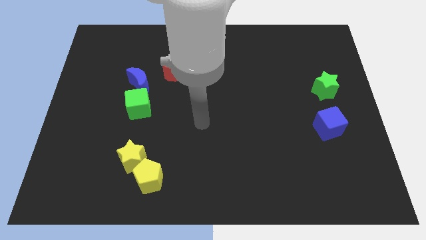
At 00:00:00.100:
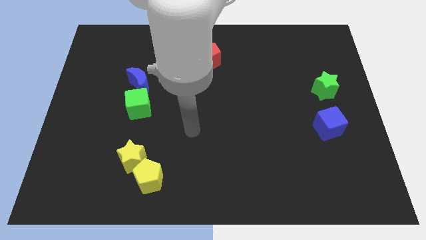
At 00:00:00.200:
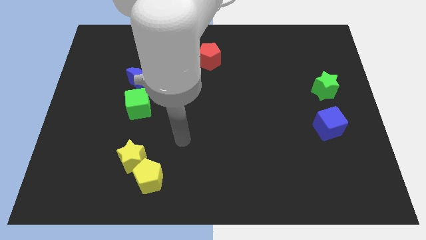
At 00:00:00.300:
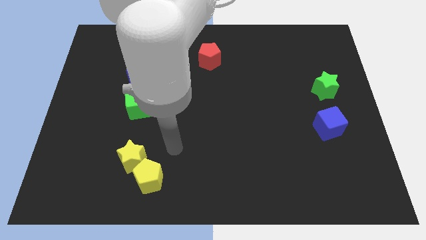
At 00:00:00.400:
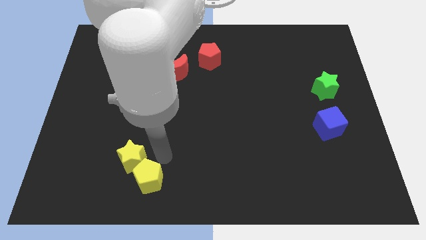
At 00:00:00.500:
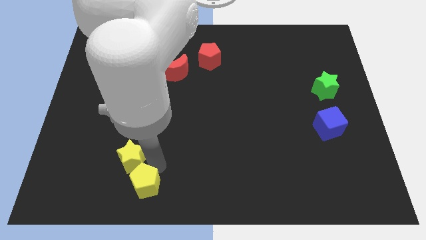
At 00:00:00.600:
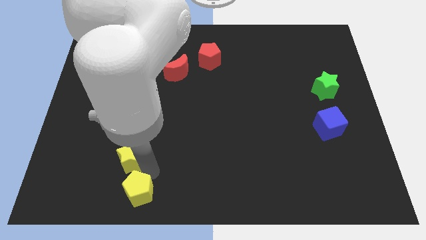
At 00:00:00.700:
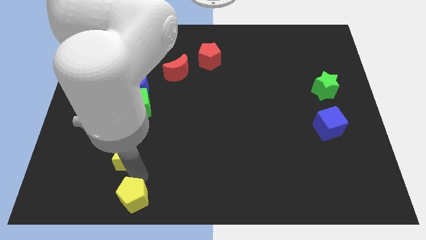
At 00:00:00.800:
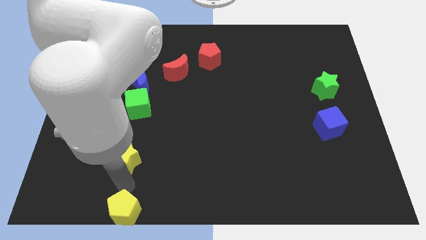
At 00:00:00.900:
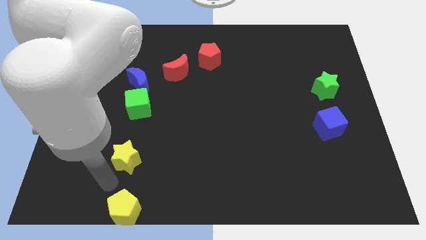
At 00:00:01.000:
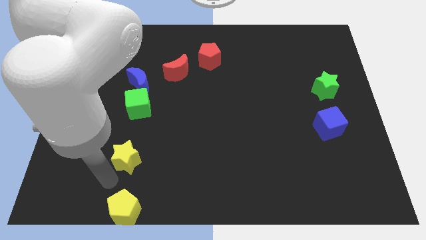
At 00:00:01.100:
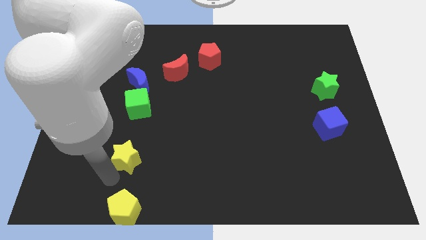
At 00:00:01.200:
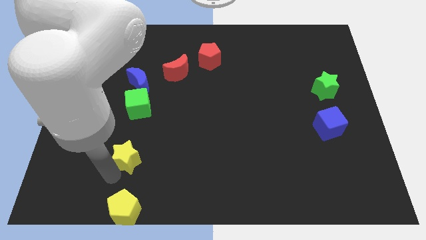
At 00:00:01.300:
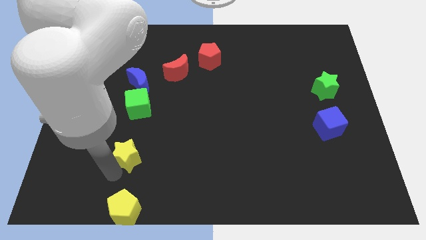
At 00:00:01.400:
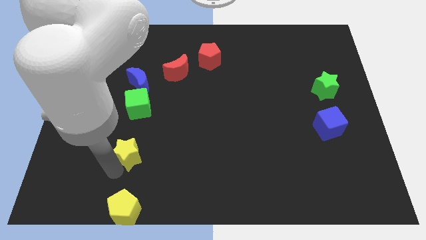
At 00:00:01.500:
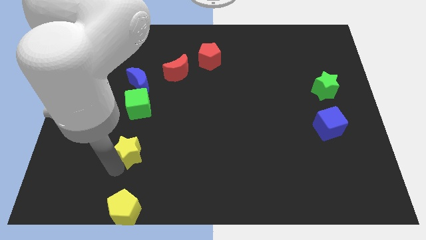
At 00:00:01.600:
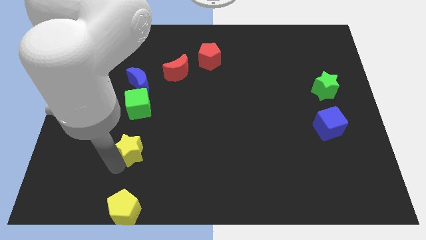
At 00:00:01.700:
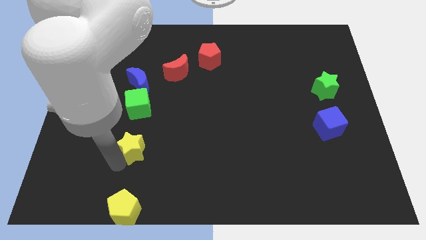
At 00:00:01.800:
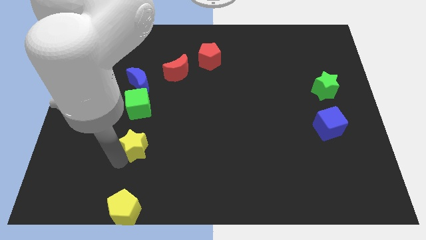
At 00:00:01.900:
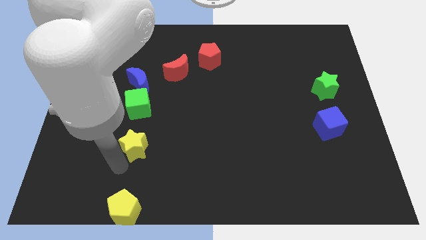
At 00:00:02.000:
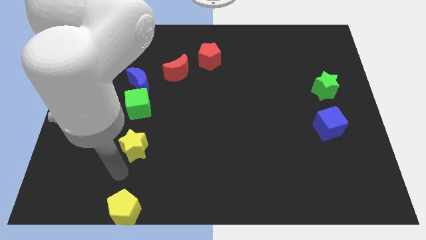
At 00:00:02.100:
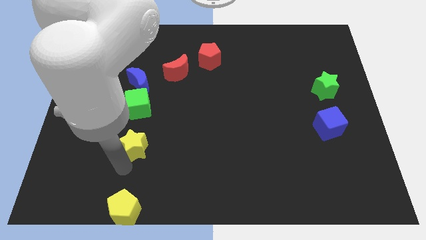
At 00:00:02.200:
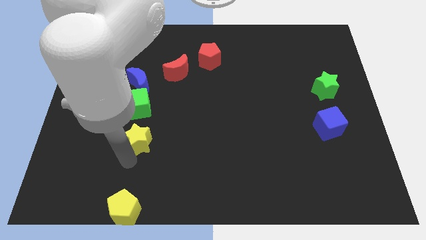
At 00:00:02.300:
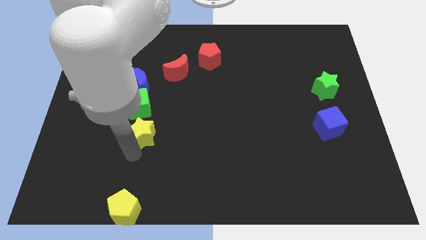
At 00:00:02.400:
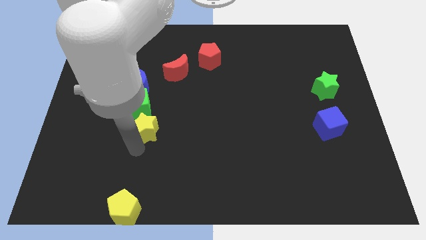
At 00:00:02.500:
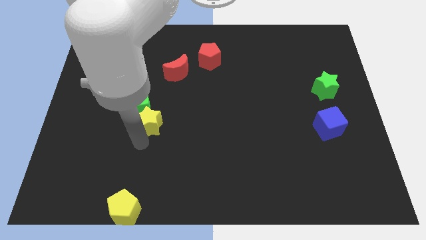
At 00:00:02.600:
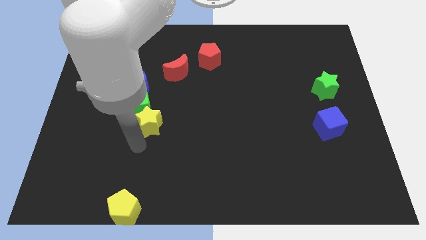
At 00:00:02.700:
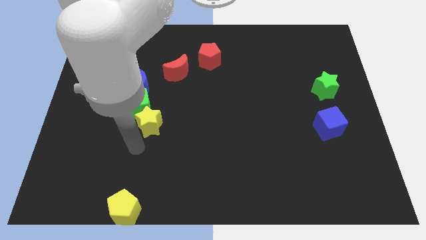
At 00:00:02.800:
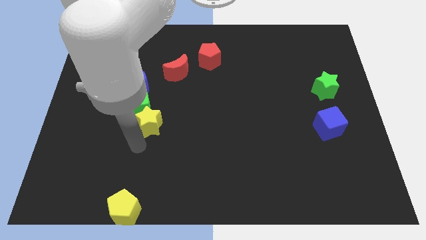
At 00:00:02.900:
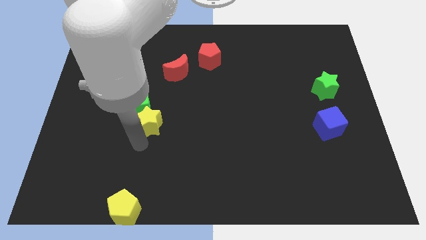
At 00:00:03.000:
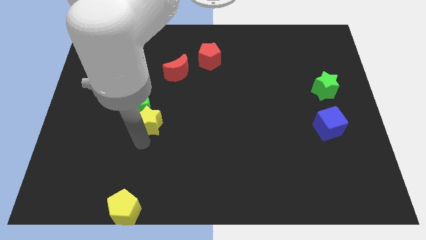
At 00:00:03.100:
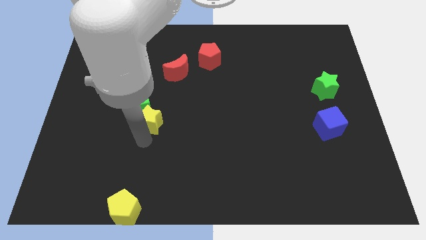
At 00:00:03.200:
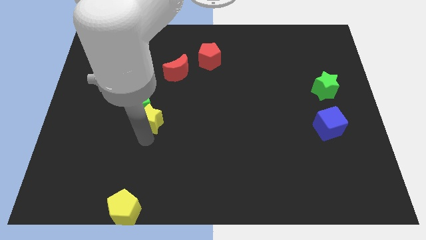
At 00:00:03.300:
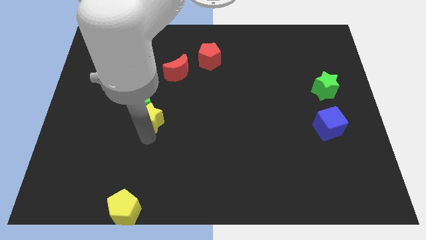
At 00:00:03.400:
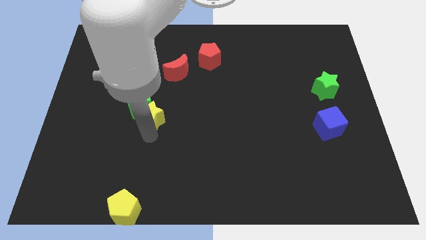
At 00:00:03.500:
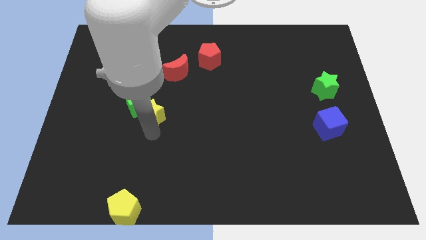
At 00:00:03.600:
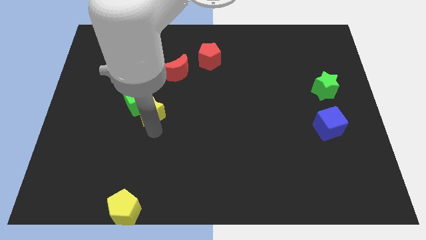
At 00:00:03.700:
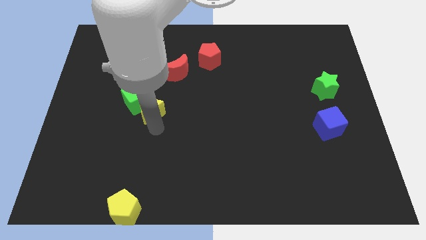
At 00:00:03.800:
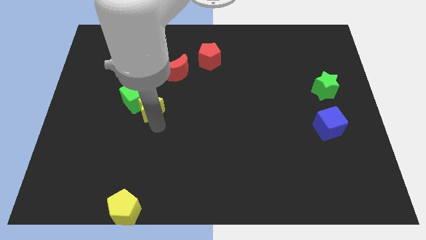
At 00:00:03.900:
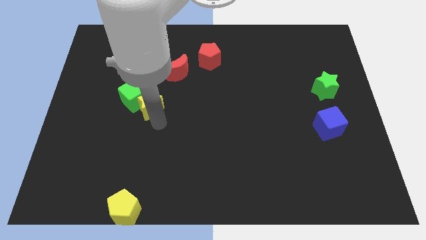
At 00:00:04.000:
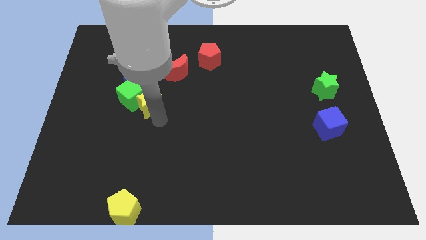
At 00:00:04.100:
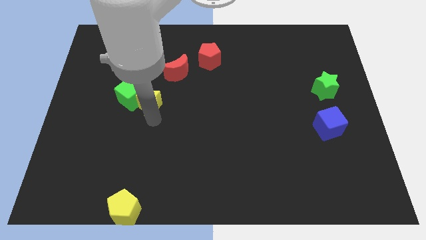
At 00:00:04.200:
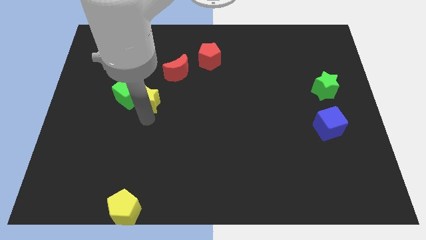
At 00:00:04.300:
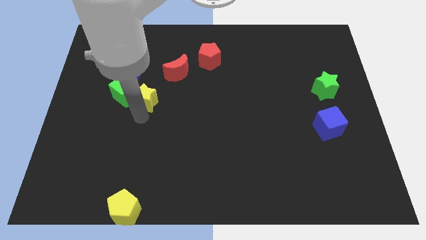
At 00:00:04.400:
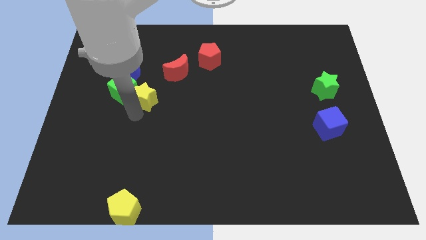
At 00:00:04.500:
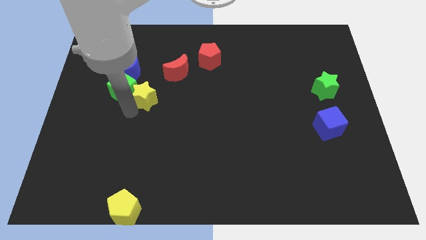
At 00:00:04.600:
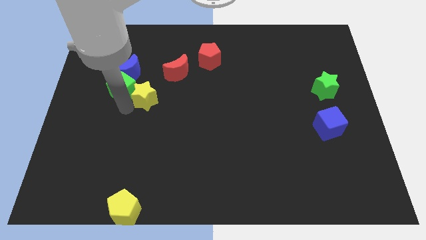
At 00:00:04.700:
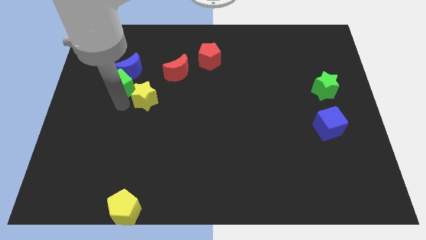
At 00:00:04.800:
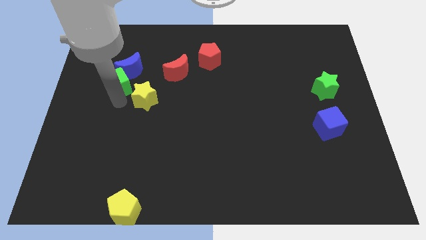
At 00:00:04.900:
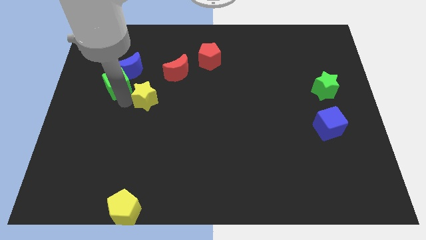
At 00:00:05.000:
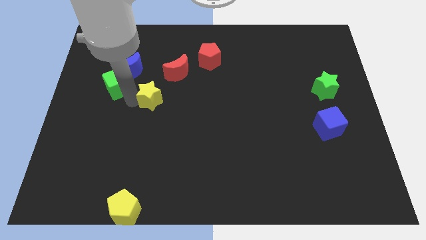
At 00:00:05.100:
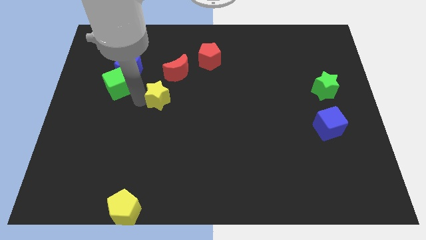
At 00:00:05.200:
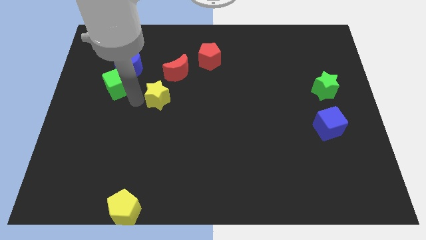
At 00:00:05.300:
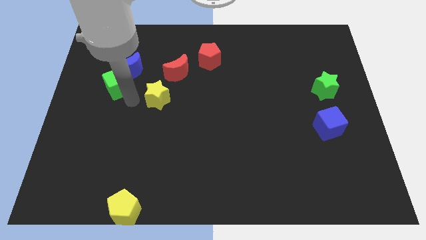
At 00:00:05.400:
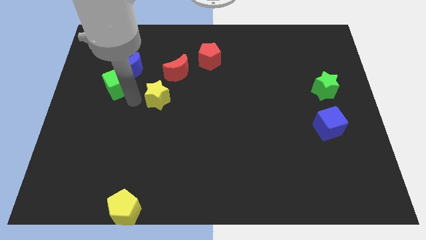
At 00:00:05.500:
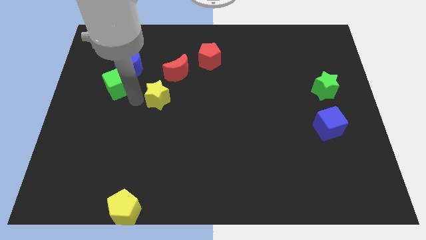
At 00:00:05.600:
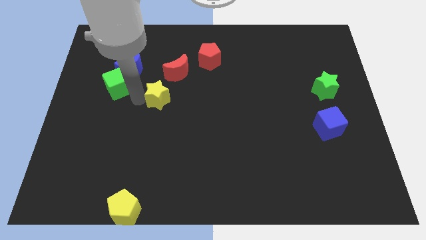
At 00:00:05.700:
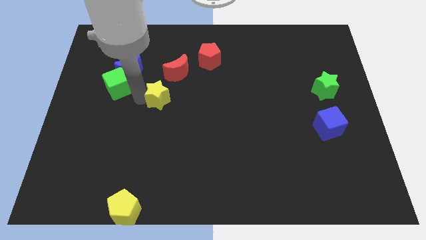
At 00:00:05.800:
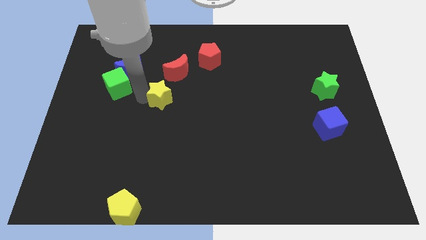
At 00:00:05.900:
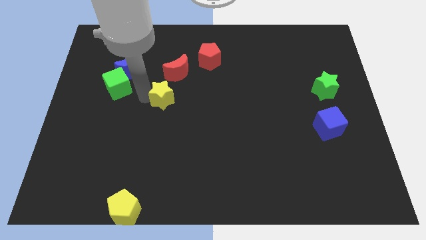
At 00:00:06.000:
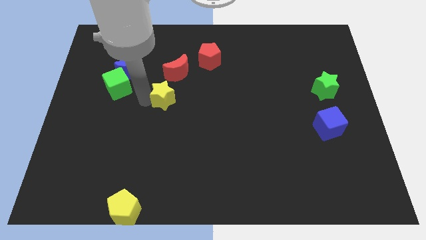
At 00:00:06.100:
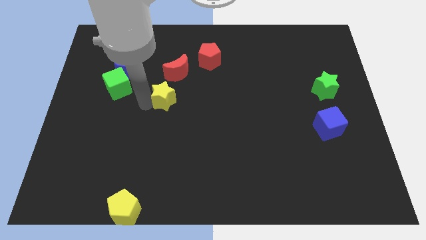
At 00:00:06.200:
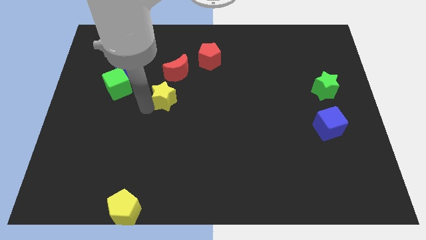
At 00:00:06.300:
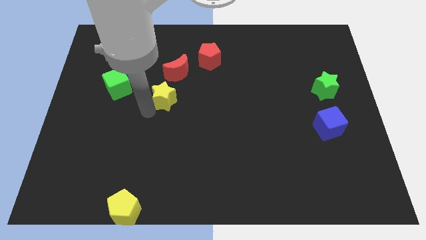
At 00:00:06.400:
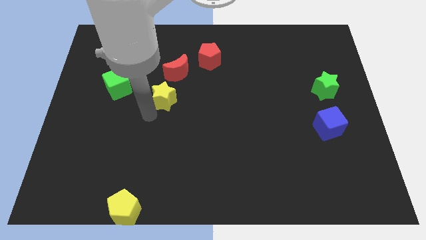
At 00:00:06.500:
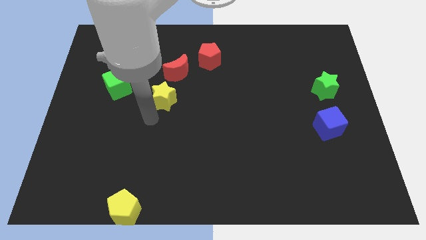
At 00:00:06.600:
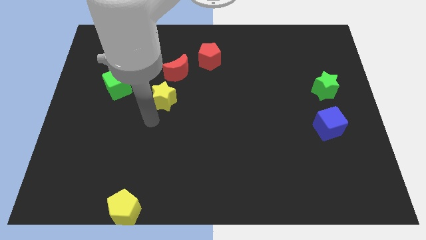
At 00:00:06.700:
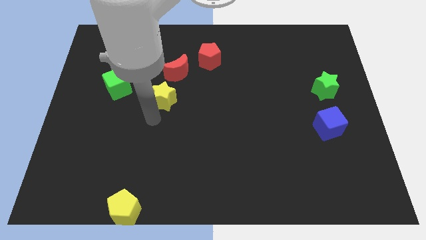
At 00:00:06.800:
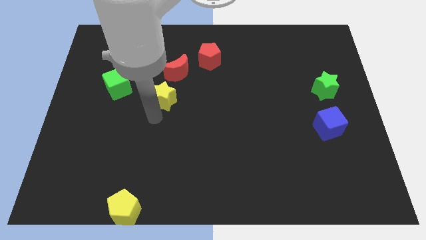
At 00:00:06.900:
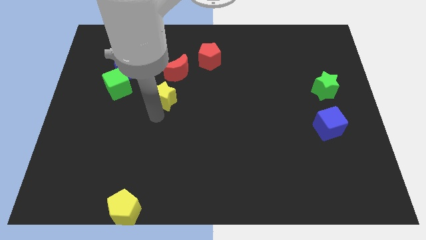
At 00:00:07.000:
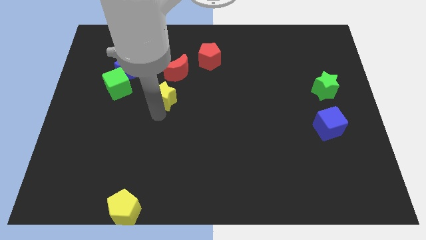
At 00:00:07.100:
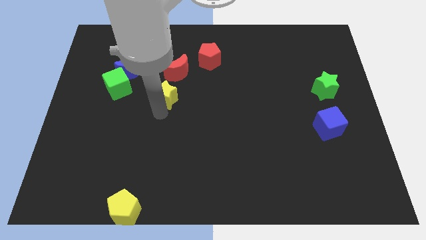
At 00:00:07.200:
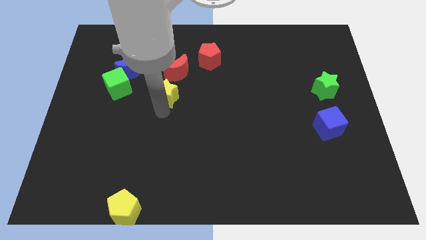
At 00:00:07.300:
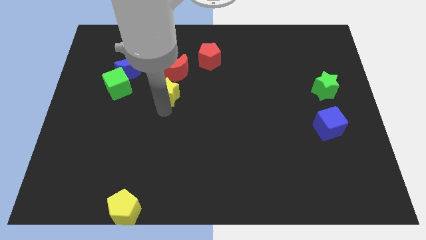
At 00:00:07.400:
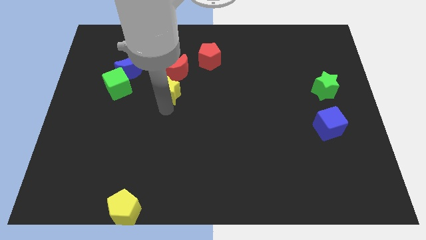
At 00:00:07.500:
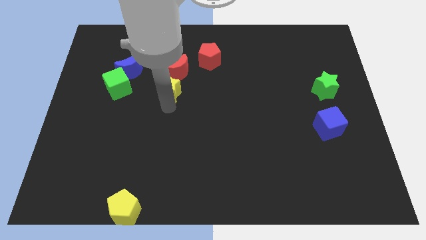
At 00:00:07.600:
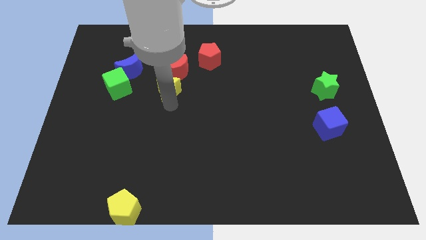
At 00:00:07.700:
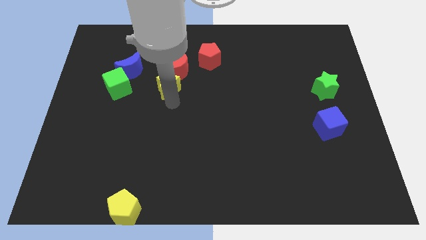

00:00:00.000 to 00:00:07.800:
push the yellow star towards the red moon

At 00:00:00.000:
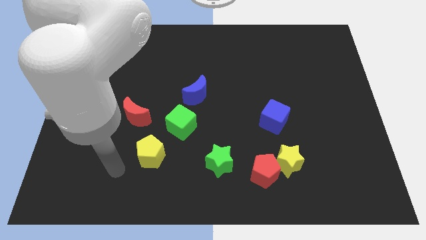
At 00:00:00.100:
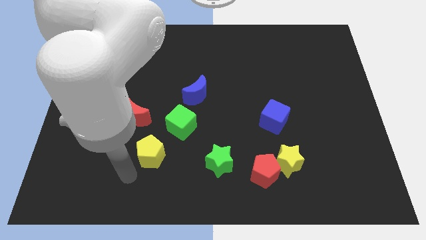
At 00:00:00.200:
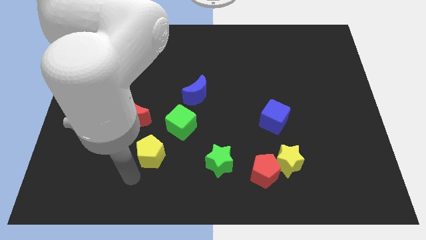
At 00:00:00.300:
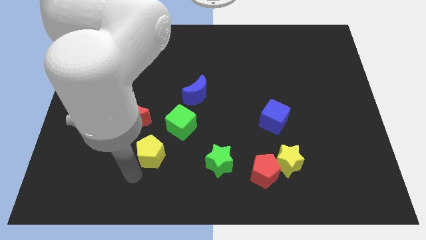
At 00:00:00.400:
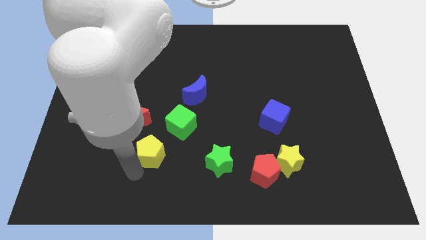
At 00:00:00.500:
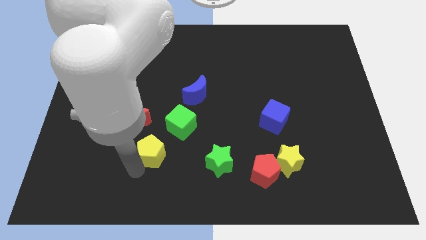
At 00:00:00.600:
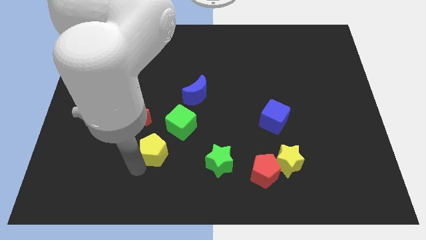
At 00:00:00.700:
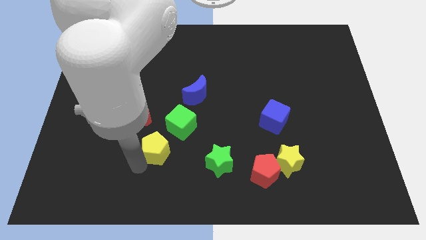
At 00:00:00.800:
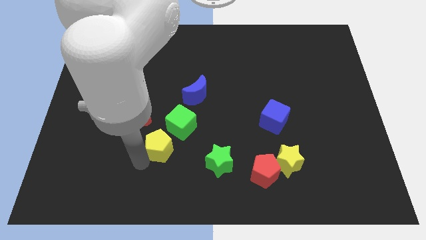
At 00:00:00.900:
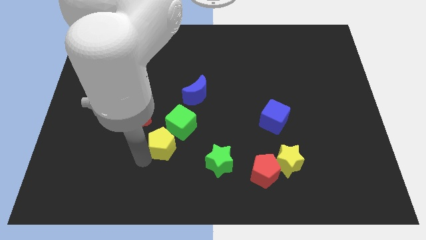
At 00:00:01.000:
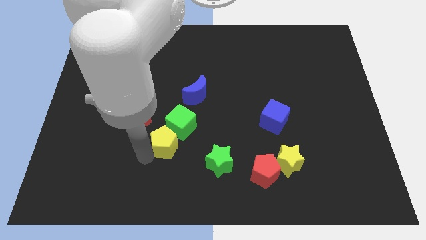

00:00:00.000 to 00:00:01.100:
move the yellow pentagon next to the green cube
